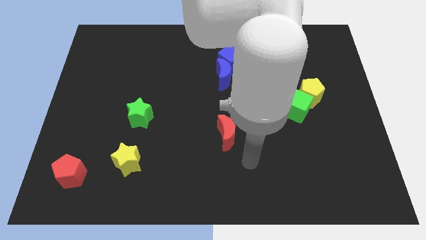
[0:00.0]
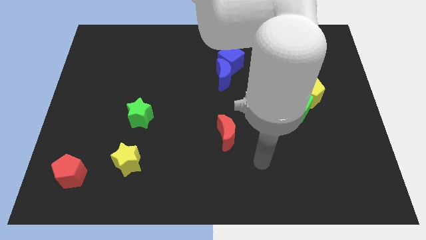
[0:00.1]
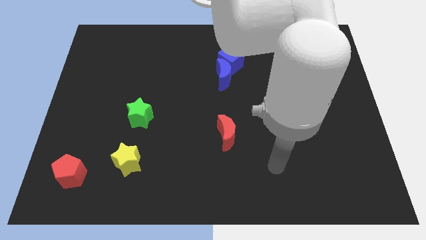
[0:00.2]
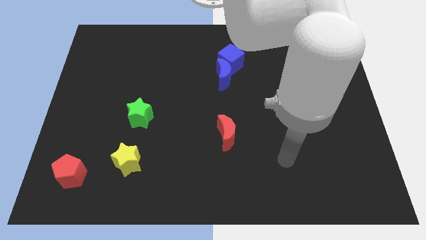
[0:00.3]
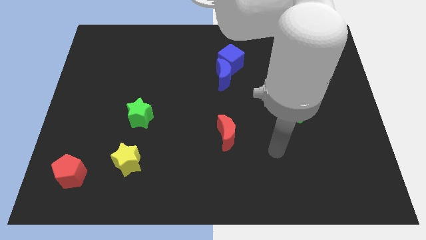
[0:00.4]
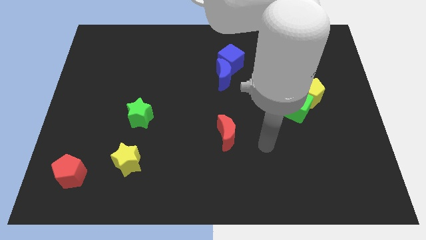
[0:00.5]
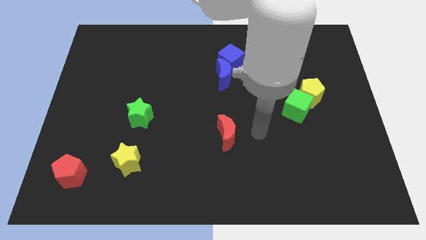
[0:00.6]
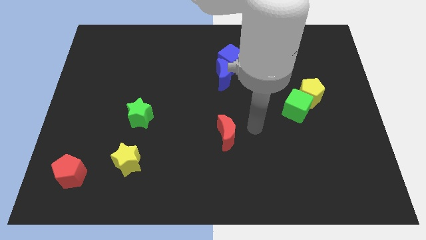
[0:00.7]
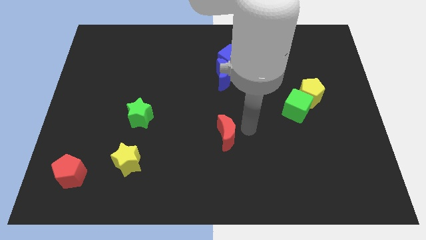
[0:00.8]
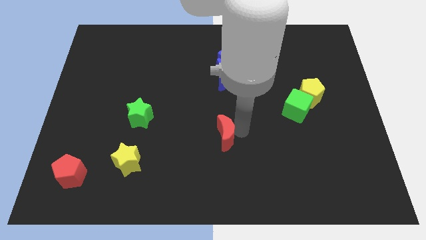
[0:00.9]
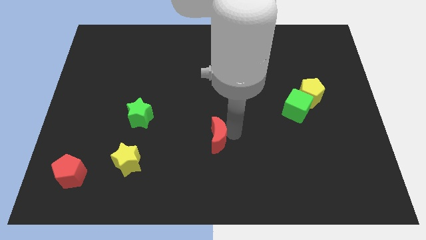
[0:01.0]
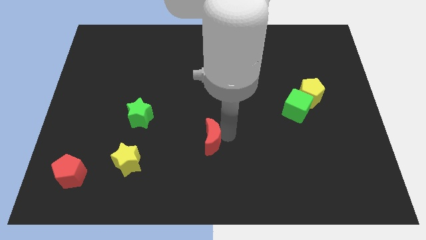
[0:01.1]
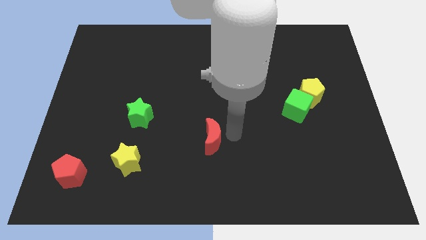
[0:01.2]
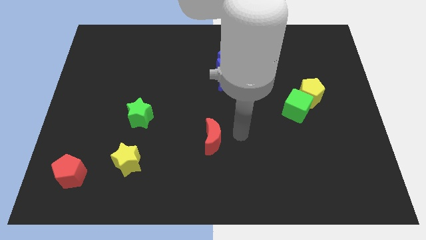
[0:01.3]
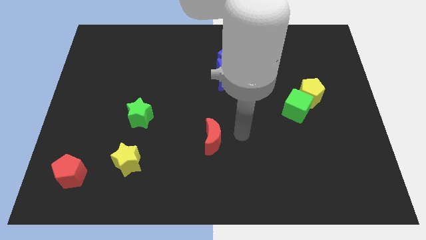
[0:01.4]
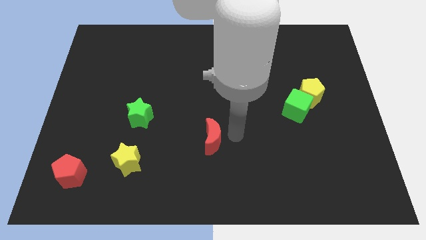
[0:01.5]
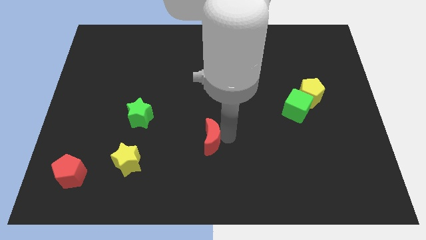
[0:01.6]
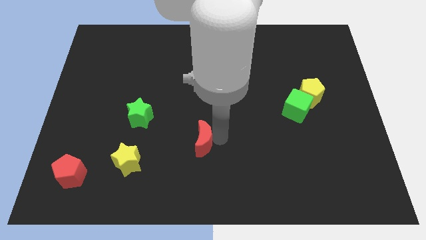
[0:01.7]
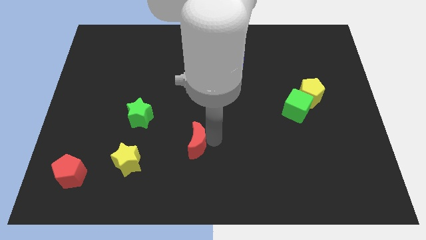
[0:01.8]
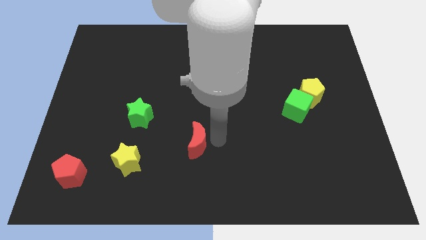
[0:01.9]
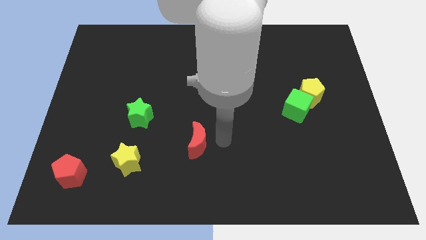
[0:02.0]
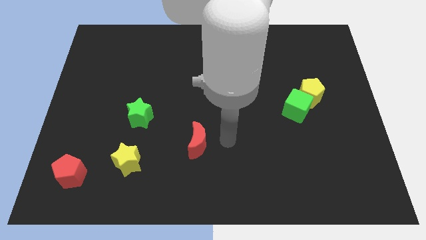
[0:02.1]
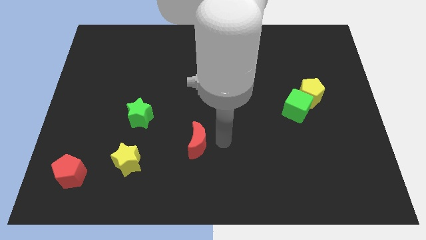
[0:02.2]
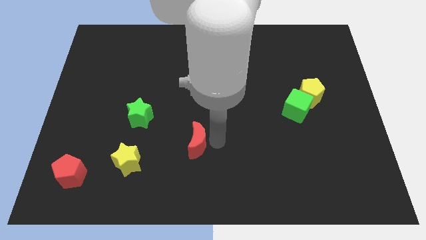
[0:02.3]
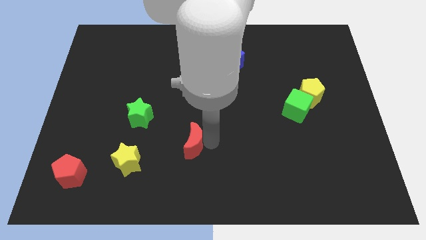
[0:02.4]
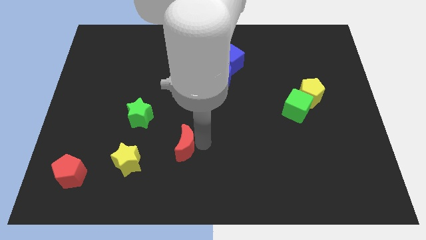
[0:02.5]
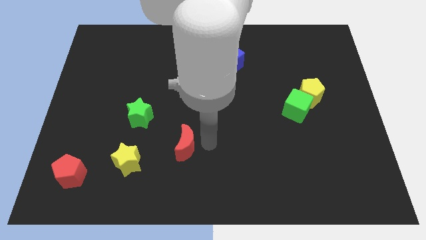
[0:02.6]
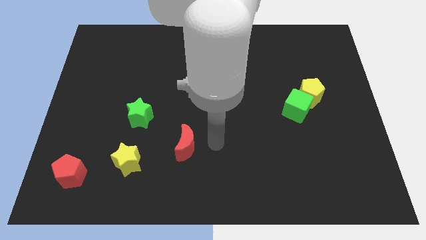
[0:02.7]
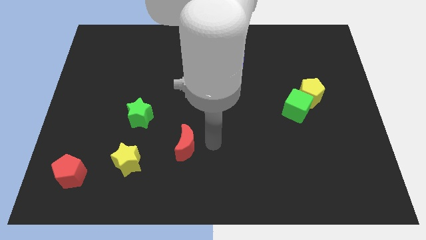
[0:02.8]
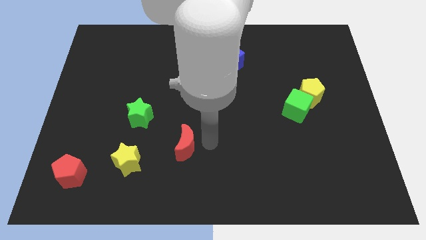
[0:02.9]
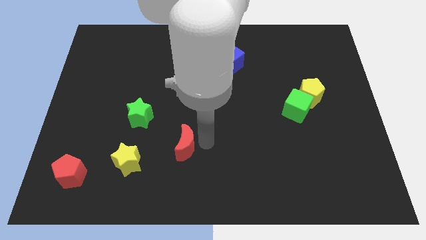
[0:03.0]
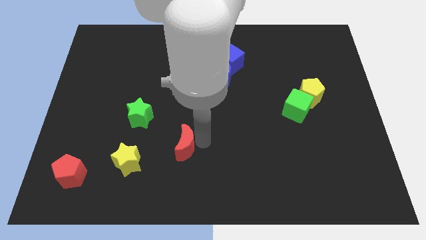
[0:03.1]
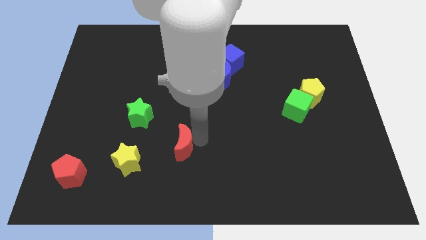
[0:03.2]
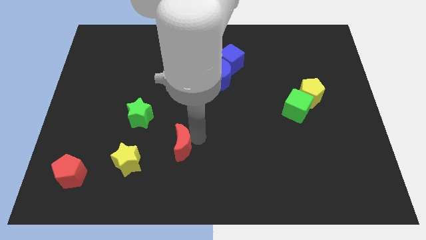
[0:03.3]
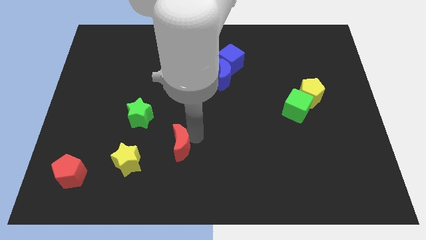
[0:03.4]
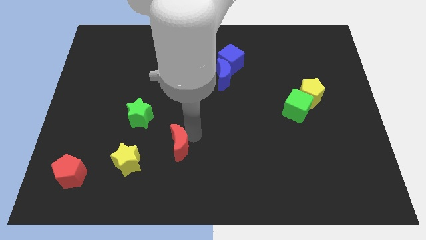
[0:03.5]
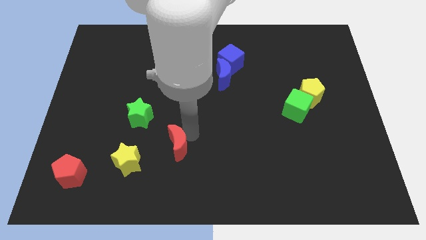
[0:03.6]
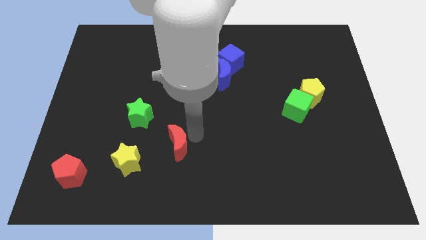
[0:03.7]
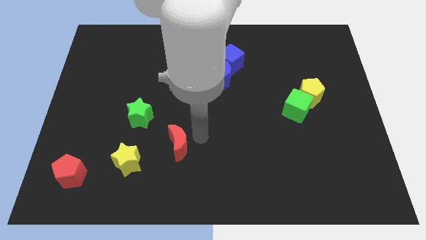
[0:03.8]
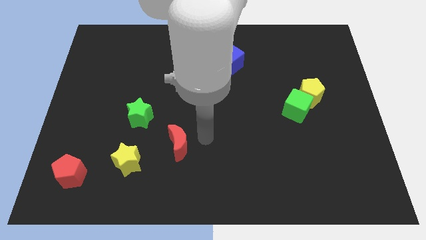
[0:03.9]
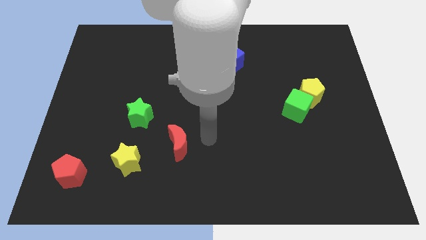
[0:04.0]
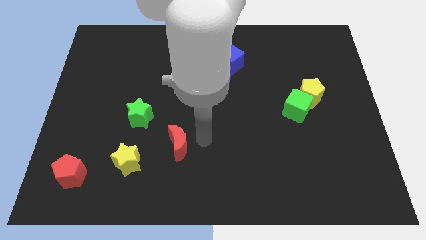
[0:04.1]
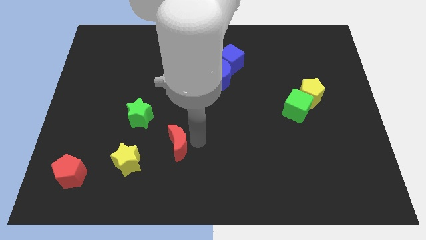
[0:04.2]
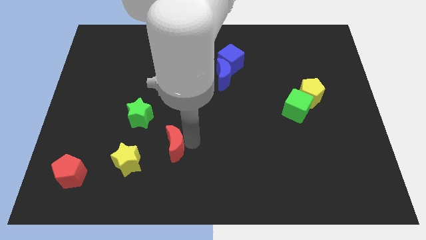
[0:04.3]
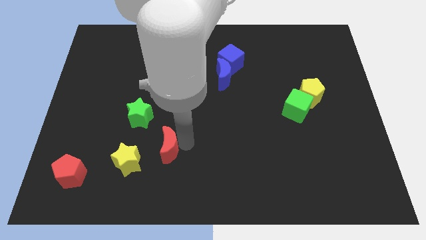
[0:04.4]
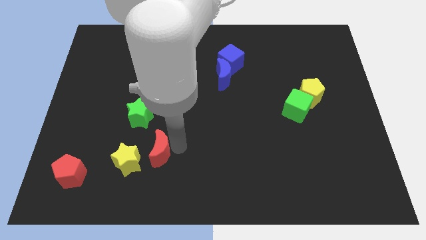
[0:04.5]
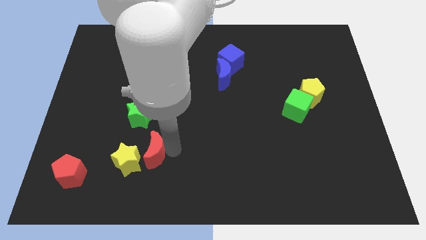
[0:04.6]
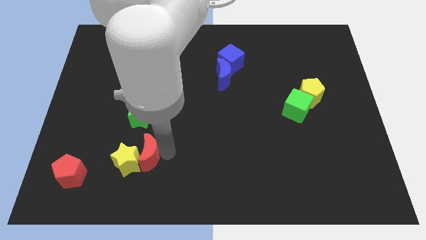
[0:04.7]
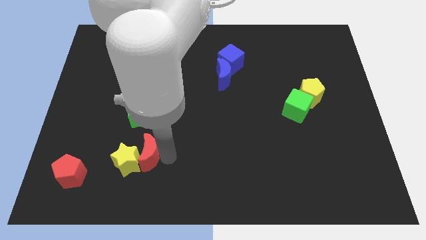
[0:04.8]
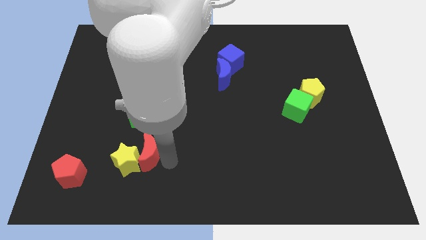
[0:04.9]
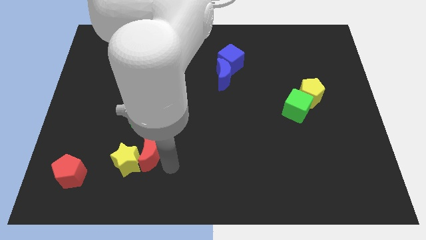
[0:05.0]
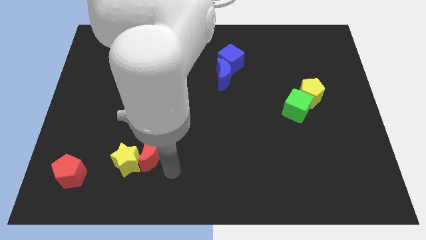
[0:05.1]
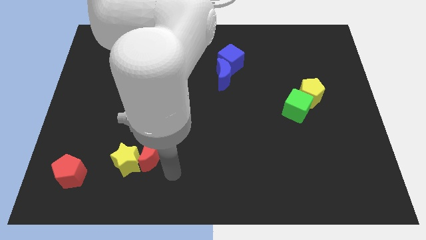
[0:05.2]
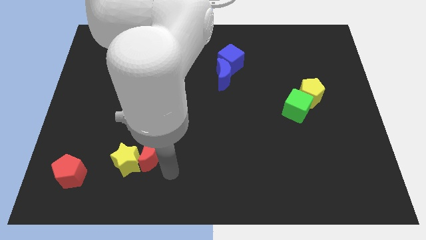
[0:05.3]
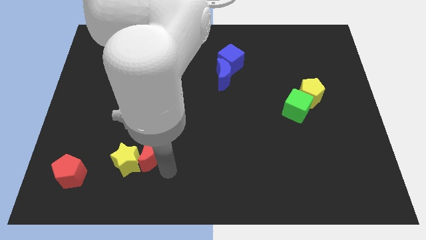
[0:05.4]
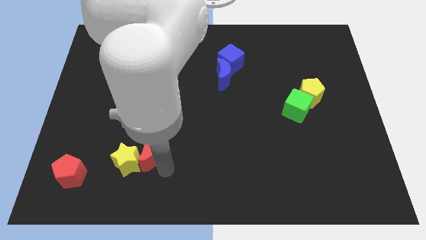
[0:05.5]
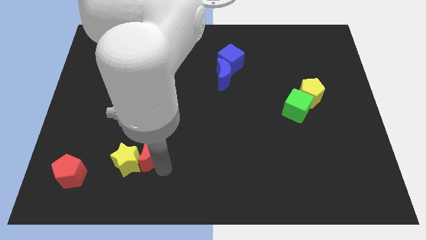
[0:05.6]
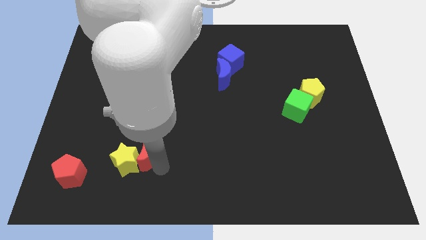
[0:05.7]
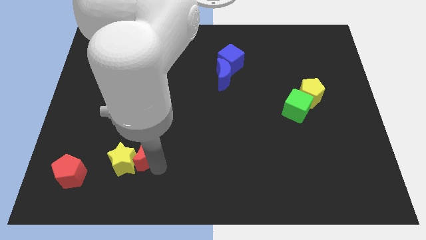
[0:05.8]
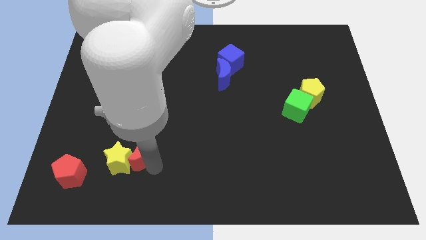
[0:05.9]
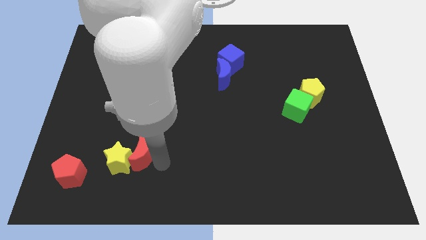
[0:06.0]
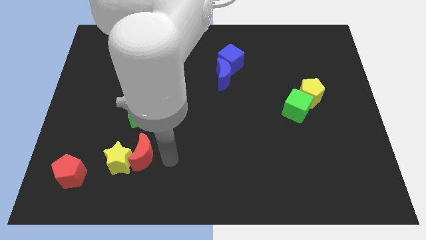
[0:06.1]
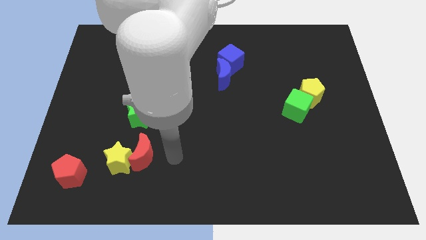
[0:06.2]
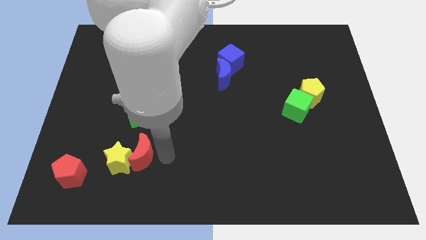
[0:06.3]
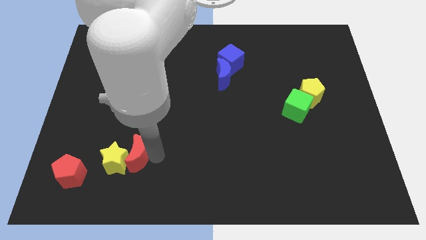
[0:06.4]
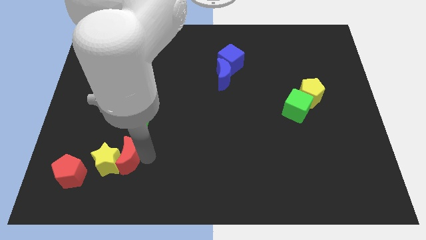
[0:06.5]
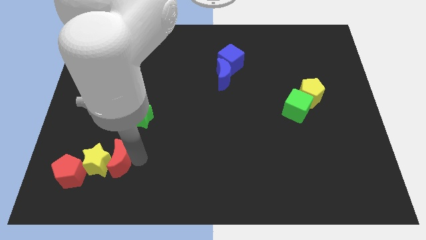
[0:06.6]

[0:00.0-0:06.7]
move the red moon to the top right of the red pentagon

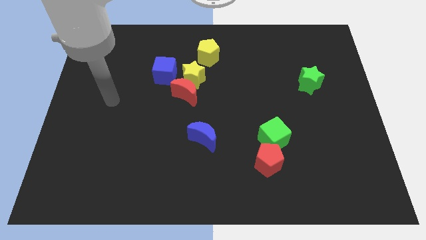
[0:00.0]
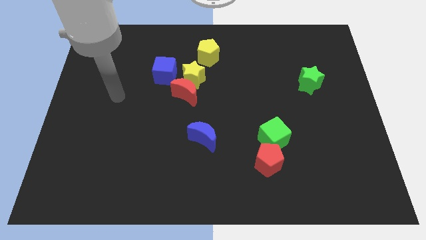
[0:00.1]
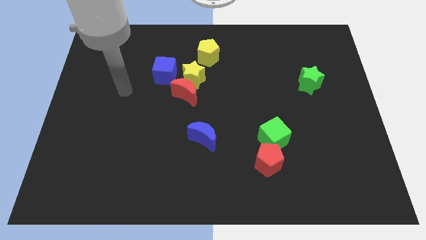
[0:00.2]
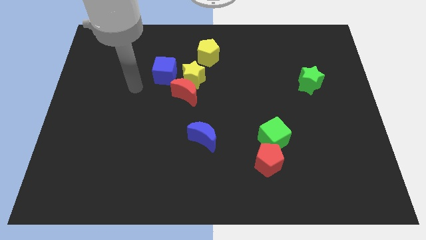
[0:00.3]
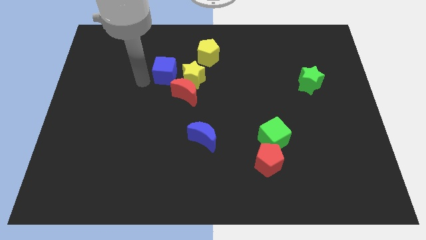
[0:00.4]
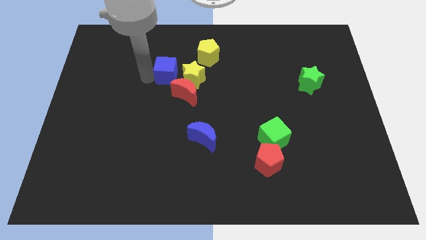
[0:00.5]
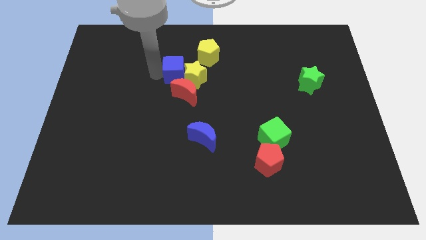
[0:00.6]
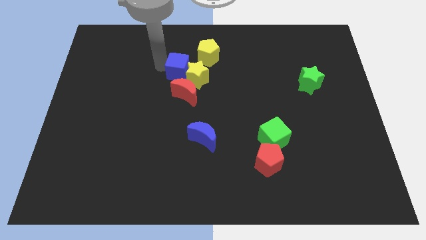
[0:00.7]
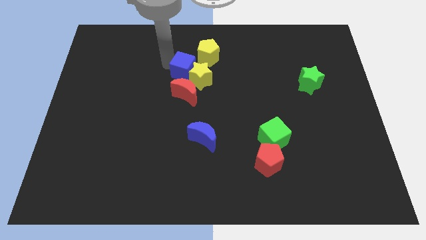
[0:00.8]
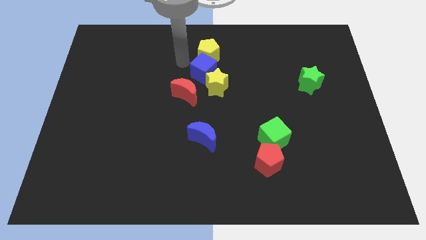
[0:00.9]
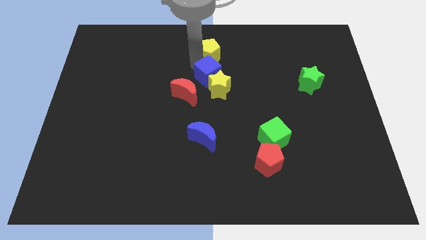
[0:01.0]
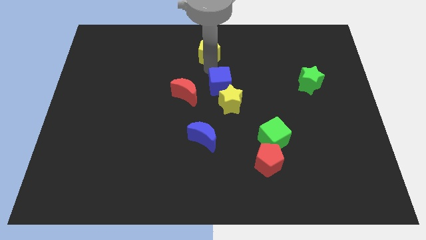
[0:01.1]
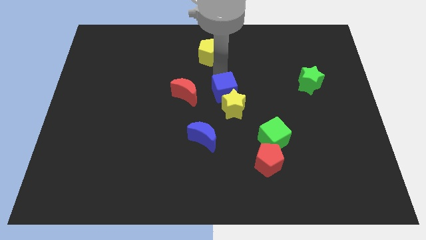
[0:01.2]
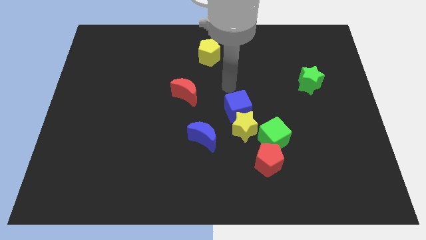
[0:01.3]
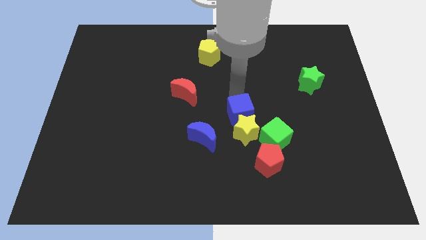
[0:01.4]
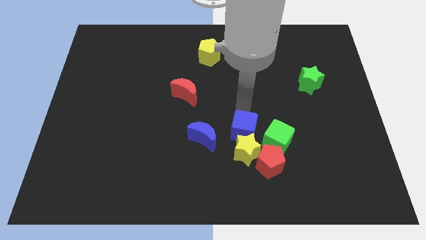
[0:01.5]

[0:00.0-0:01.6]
move the yellow star just left of the red pentagon
